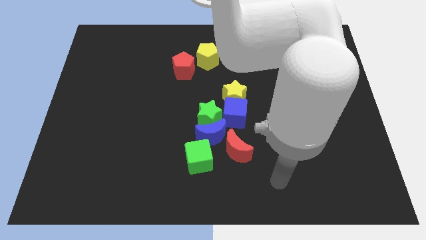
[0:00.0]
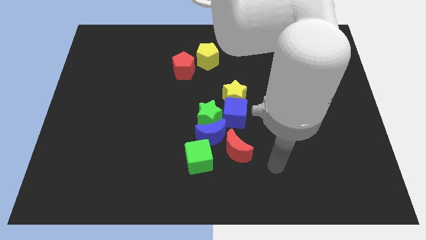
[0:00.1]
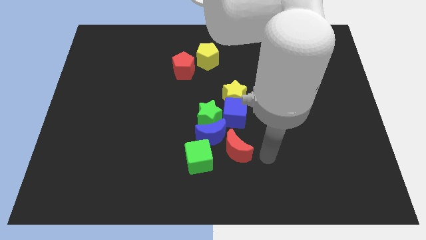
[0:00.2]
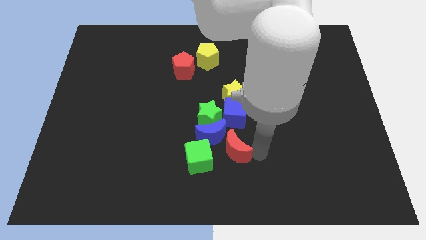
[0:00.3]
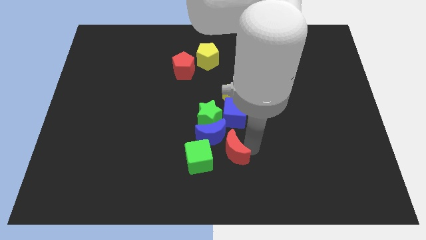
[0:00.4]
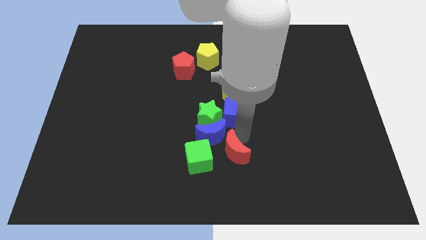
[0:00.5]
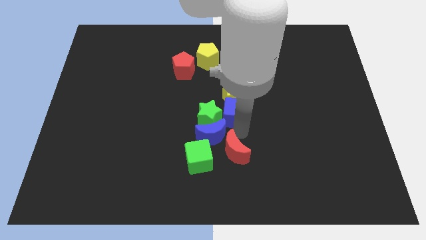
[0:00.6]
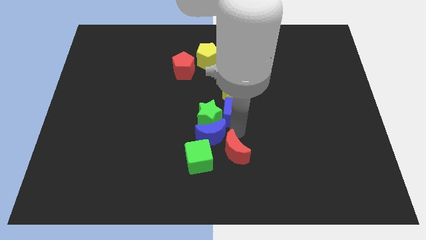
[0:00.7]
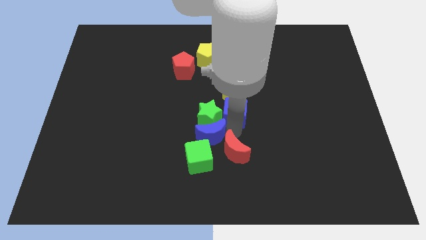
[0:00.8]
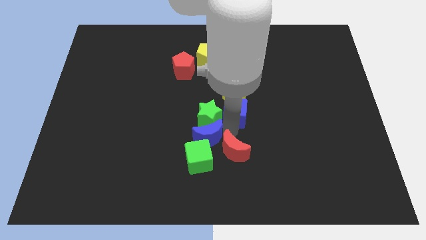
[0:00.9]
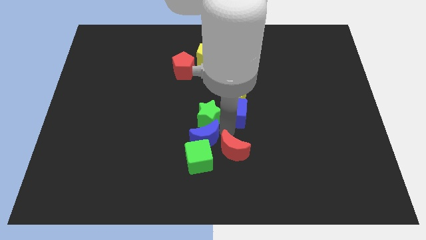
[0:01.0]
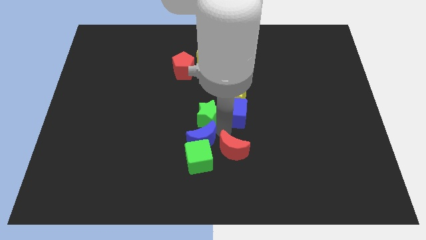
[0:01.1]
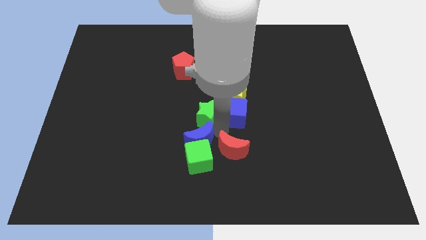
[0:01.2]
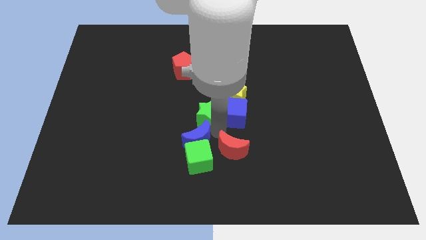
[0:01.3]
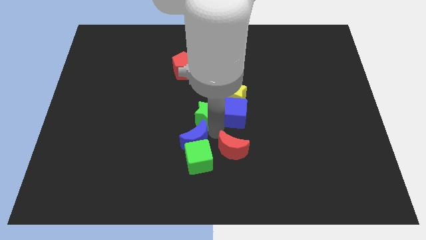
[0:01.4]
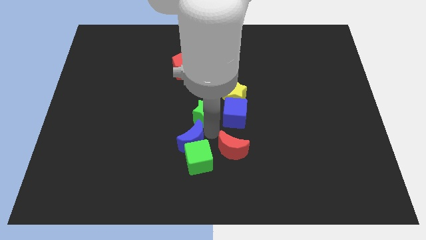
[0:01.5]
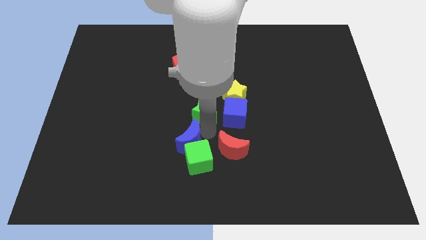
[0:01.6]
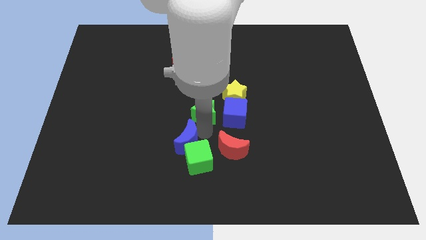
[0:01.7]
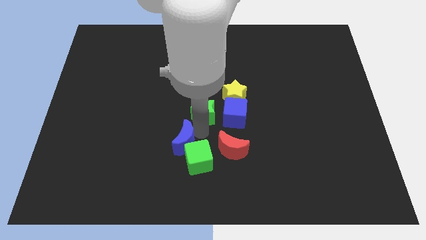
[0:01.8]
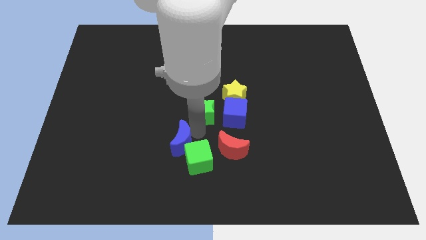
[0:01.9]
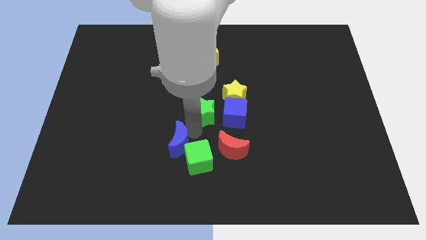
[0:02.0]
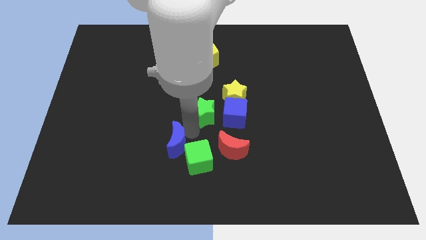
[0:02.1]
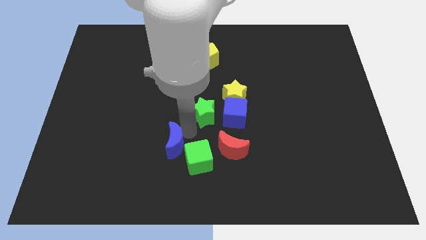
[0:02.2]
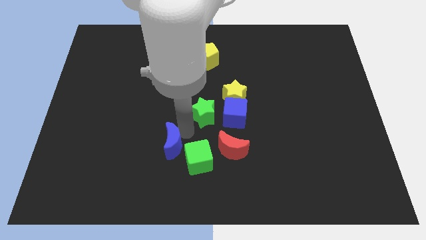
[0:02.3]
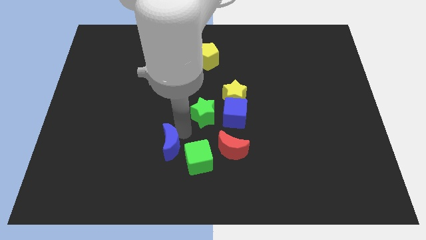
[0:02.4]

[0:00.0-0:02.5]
separate the blue moon from the clump

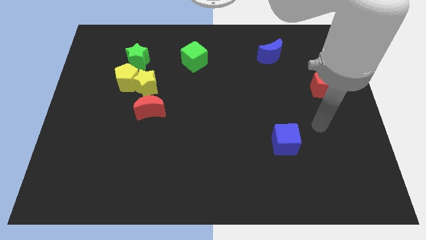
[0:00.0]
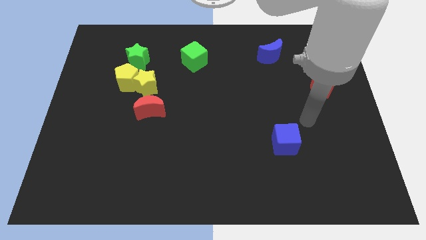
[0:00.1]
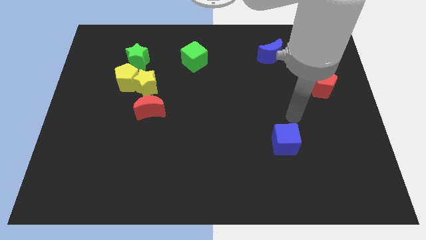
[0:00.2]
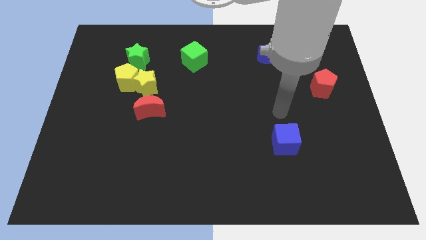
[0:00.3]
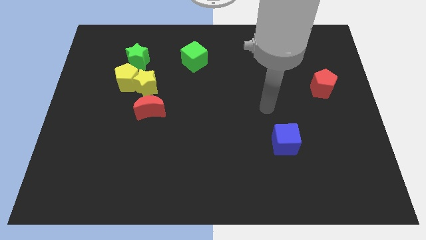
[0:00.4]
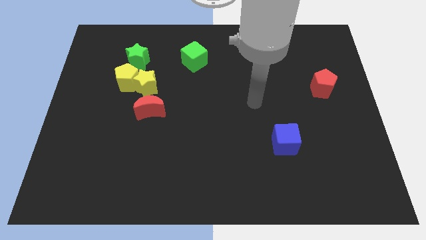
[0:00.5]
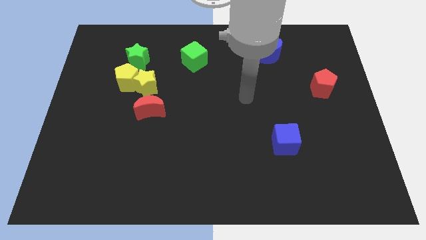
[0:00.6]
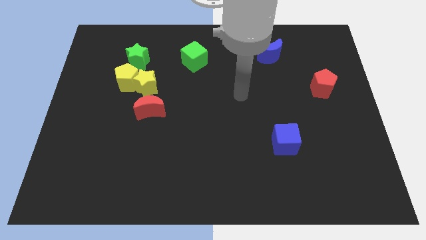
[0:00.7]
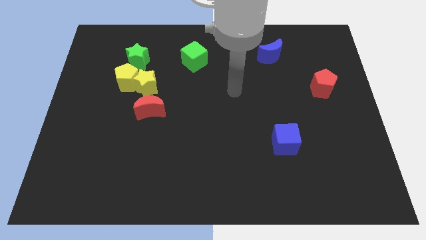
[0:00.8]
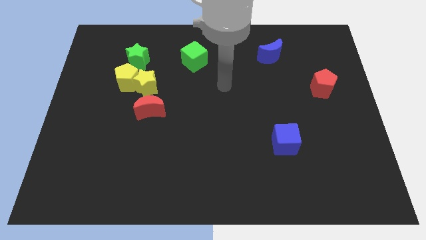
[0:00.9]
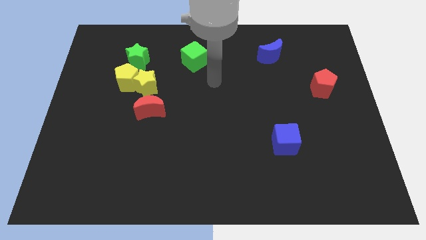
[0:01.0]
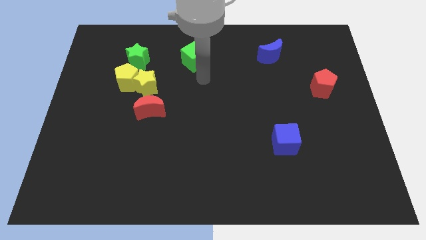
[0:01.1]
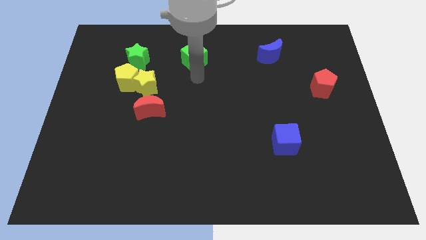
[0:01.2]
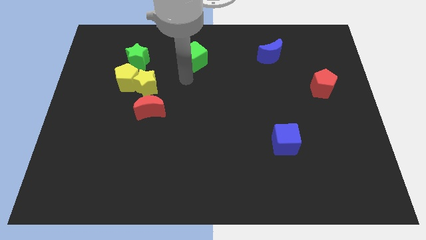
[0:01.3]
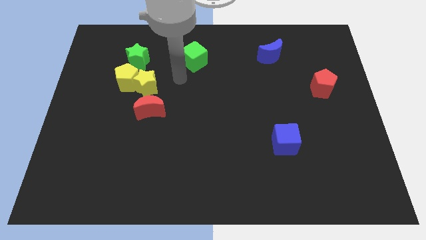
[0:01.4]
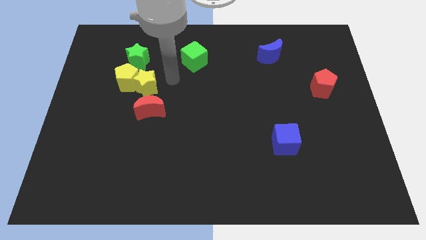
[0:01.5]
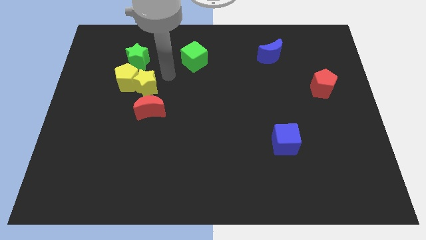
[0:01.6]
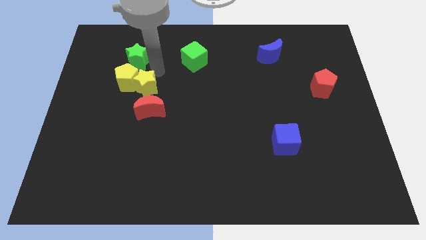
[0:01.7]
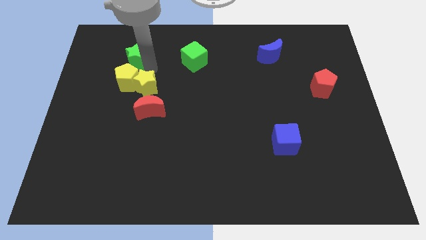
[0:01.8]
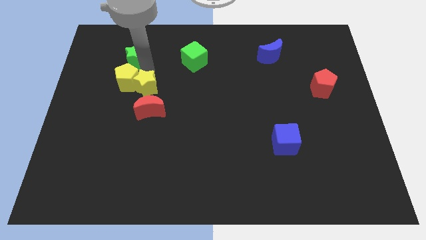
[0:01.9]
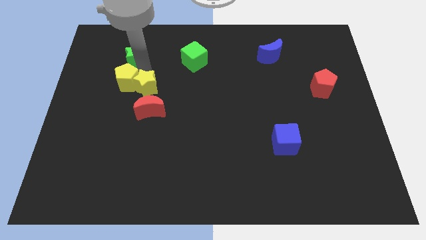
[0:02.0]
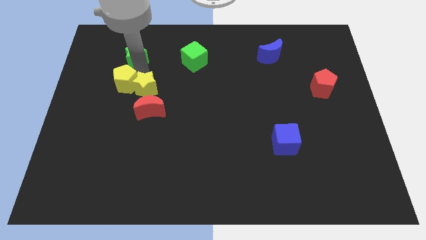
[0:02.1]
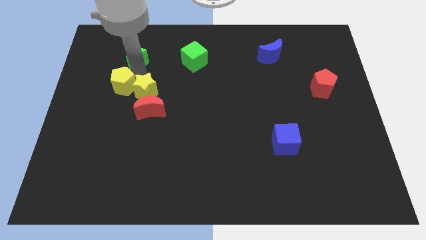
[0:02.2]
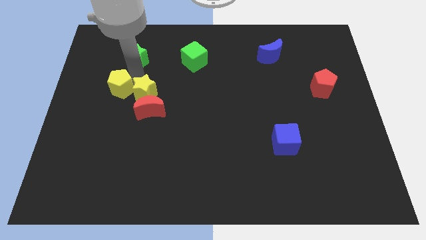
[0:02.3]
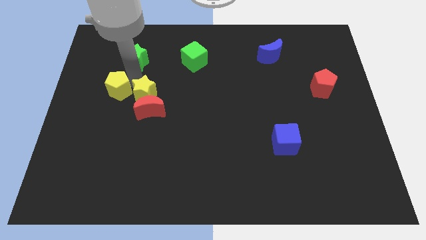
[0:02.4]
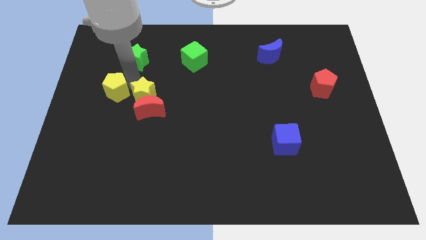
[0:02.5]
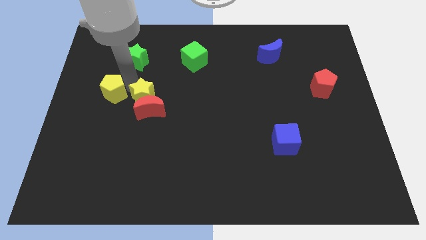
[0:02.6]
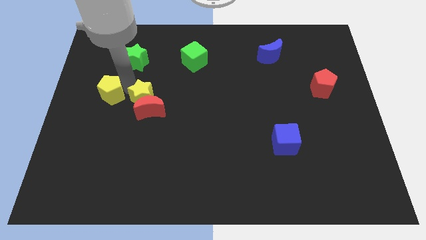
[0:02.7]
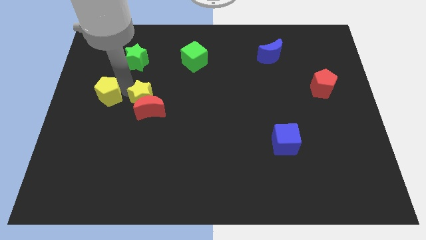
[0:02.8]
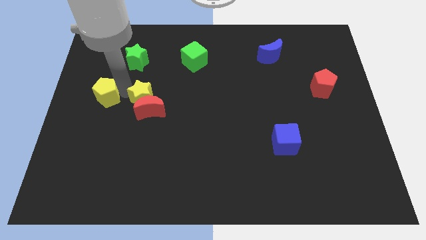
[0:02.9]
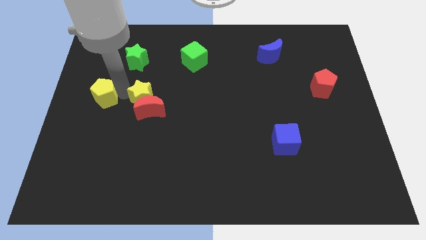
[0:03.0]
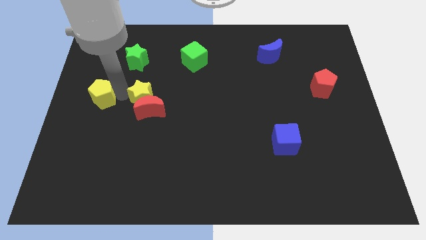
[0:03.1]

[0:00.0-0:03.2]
pull the yellow pentagon apart from the yellow star and green star

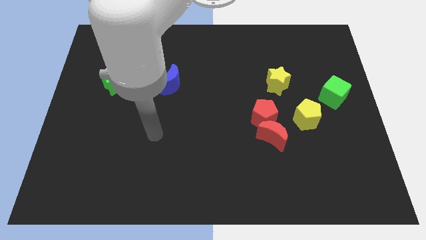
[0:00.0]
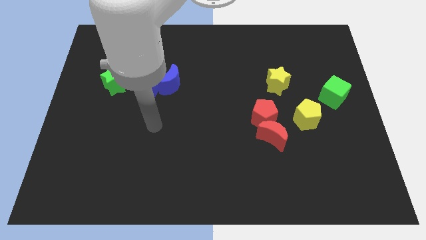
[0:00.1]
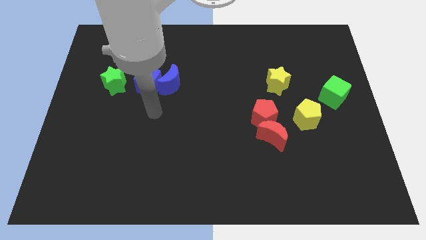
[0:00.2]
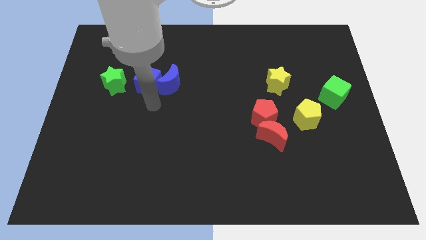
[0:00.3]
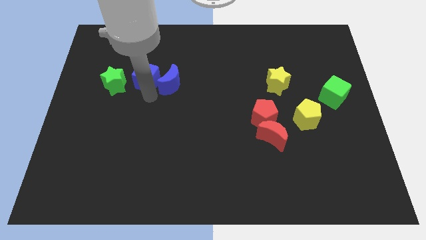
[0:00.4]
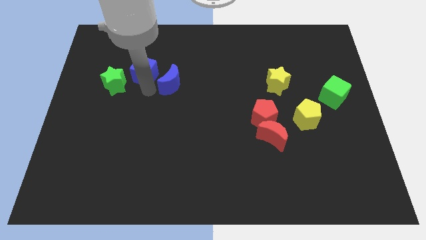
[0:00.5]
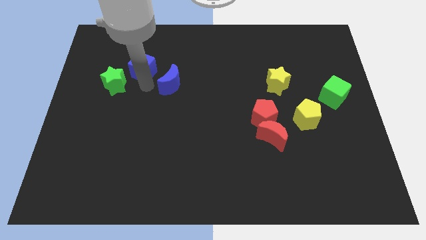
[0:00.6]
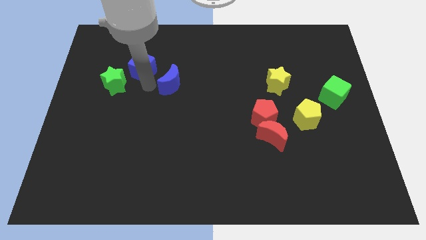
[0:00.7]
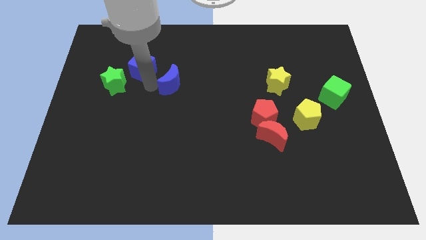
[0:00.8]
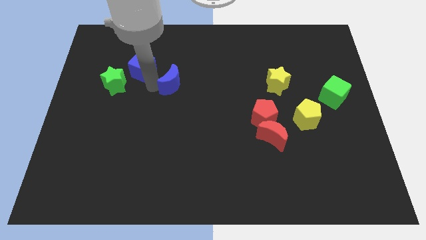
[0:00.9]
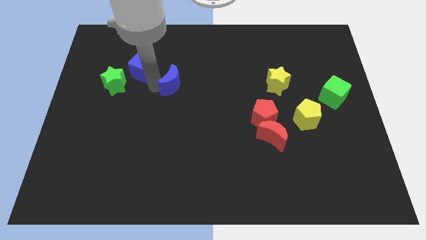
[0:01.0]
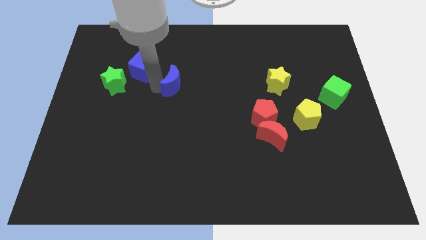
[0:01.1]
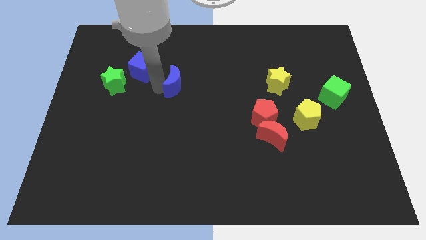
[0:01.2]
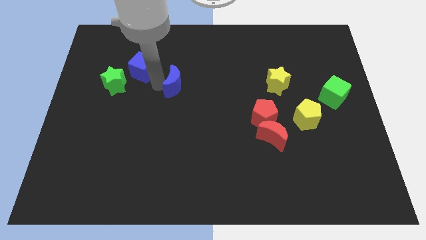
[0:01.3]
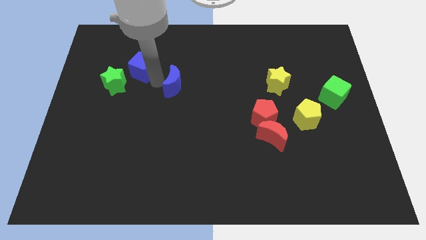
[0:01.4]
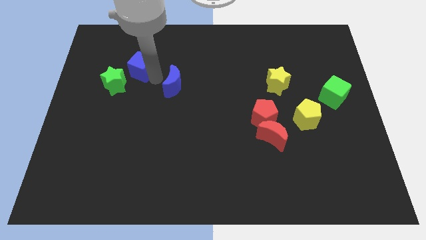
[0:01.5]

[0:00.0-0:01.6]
separate the blue moon from the blue cube

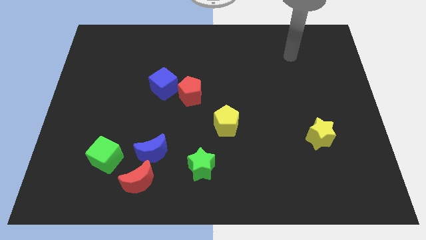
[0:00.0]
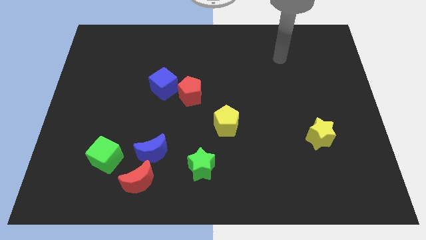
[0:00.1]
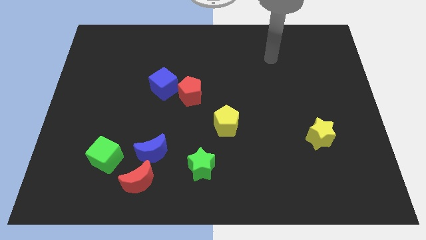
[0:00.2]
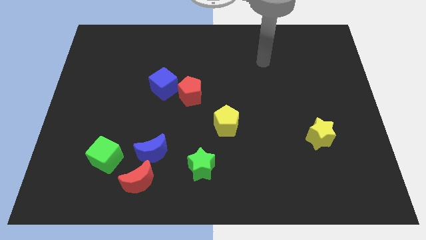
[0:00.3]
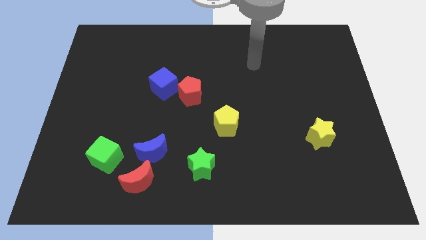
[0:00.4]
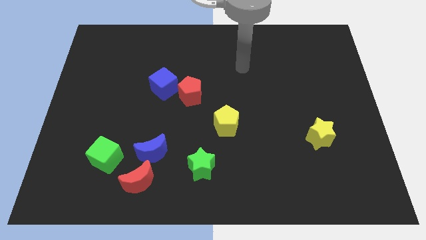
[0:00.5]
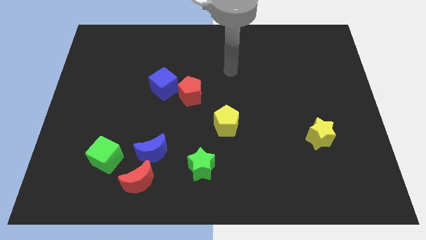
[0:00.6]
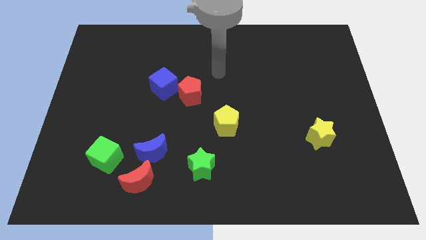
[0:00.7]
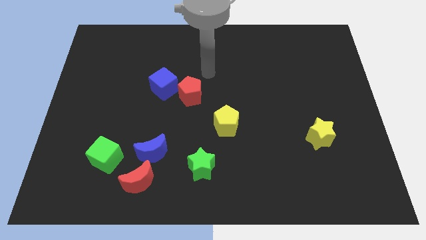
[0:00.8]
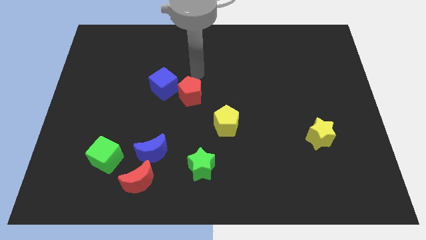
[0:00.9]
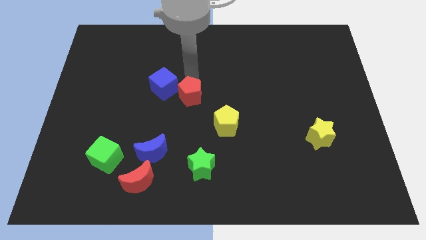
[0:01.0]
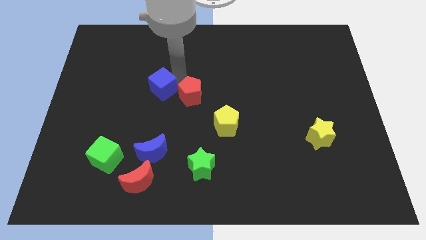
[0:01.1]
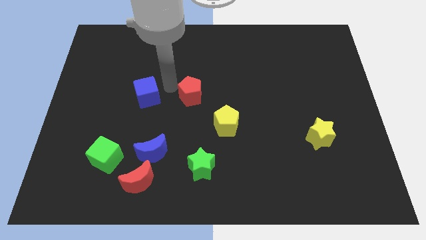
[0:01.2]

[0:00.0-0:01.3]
pull the red pentagon apart from the blue cube

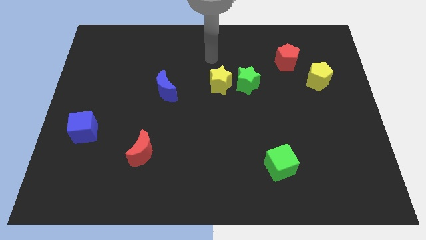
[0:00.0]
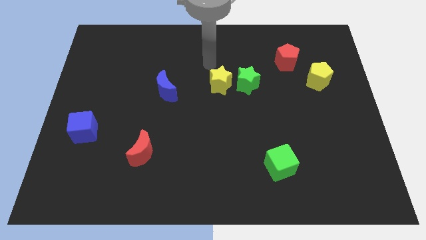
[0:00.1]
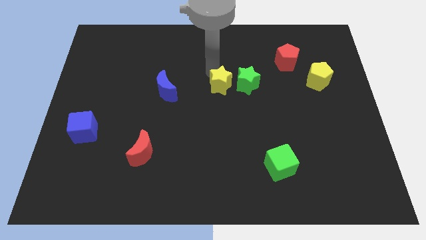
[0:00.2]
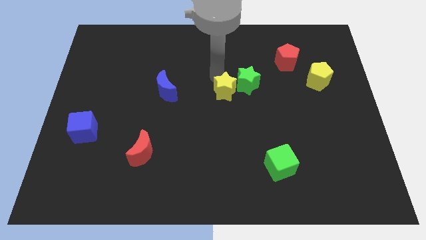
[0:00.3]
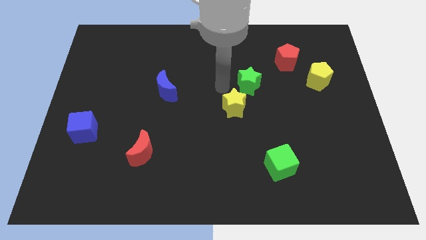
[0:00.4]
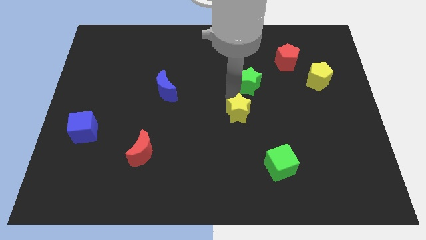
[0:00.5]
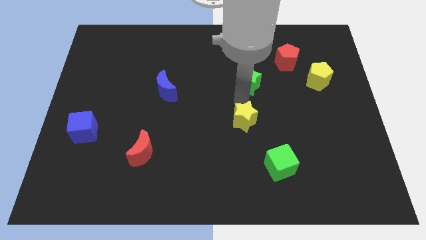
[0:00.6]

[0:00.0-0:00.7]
separate the green star from the yellow star
